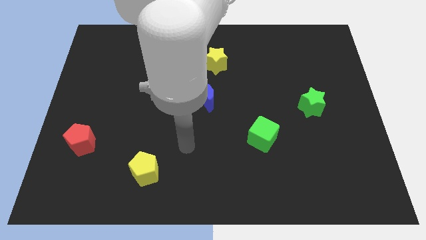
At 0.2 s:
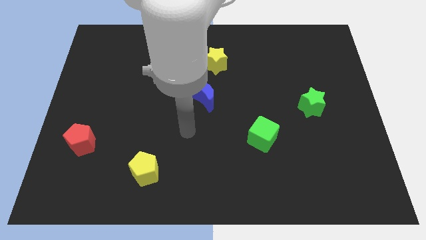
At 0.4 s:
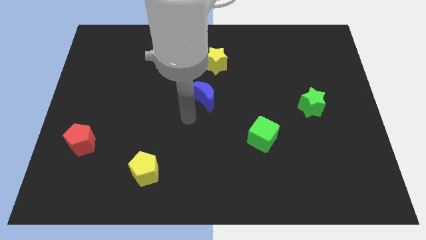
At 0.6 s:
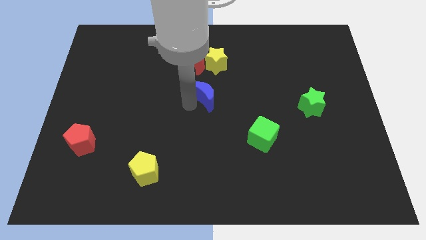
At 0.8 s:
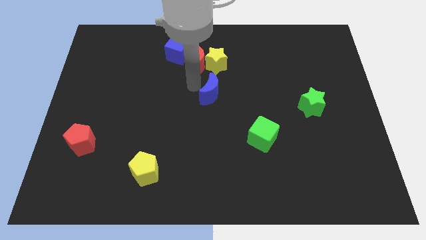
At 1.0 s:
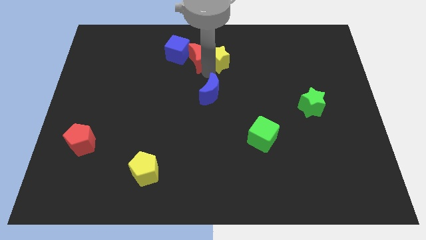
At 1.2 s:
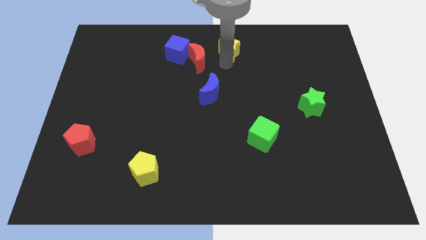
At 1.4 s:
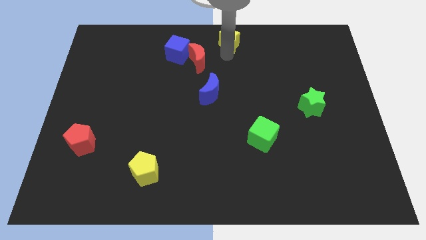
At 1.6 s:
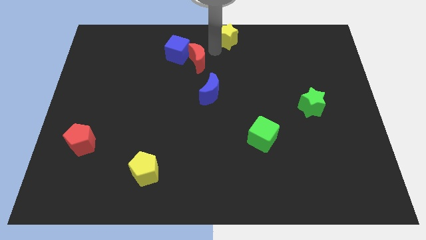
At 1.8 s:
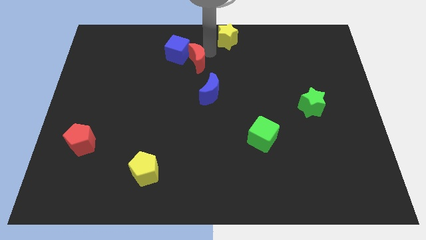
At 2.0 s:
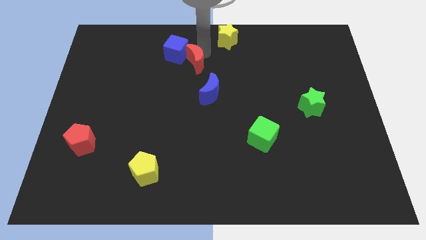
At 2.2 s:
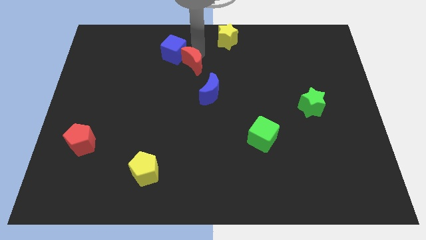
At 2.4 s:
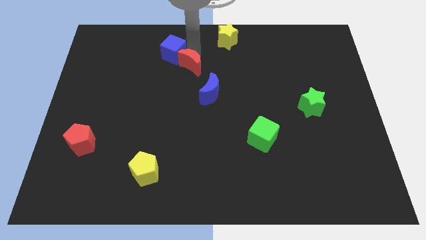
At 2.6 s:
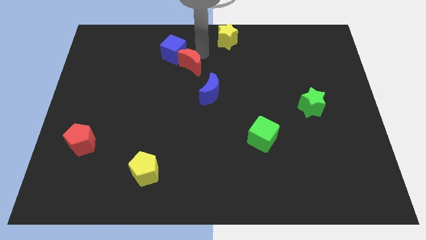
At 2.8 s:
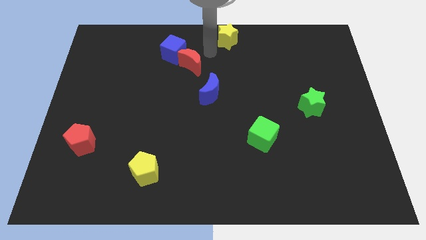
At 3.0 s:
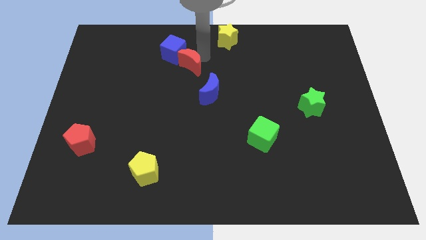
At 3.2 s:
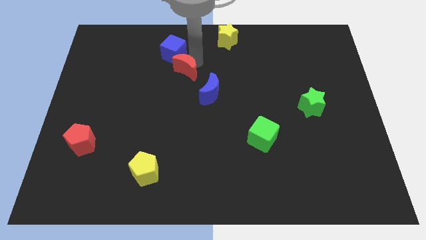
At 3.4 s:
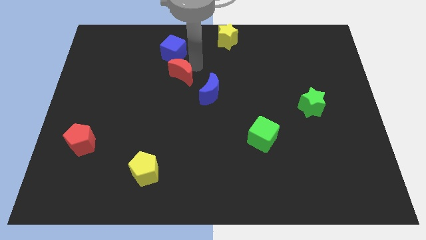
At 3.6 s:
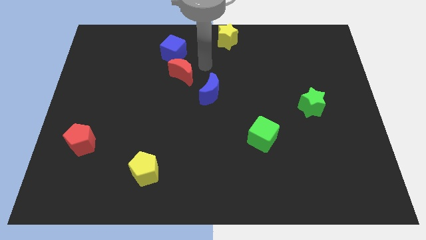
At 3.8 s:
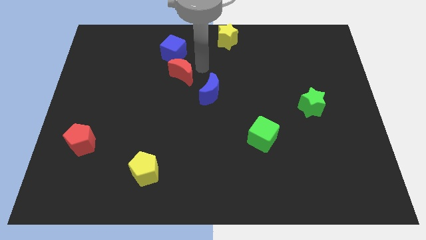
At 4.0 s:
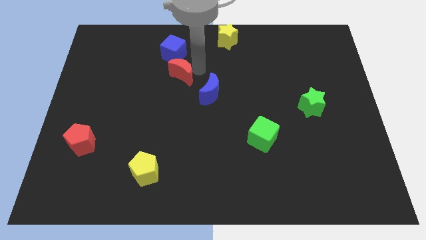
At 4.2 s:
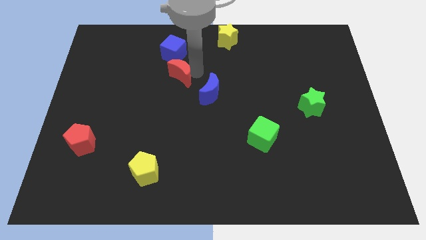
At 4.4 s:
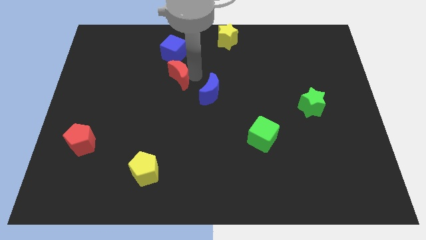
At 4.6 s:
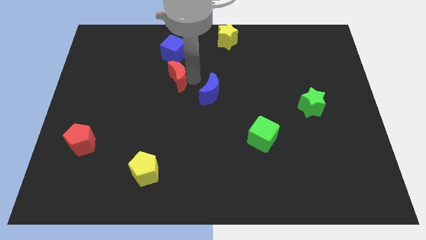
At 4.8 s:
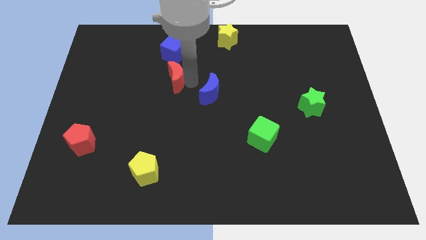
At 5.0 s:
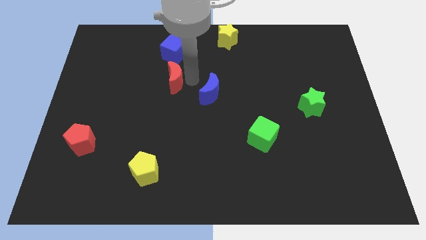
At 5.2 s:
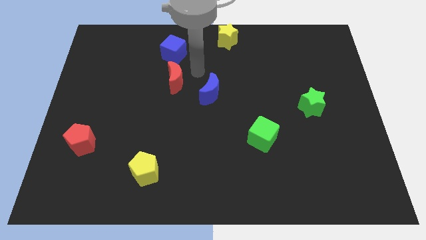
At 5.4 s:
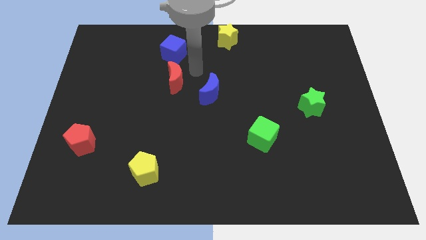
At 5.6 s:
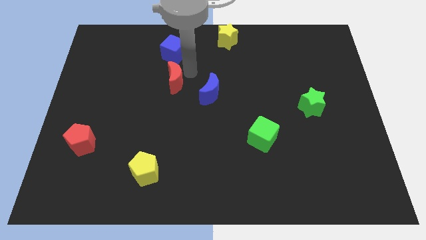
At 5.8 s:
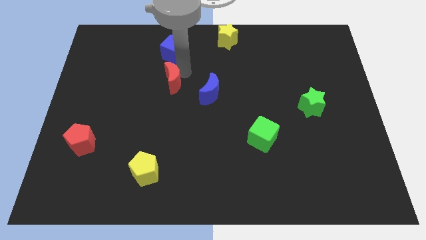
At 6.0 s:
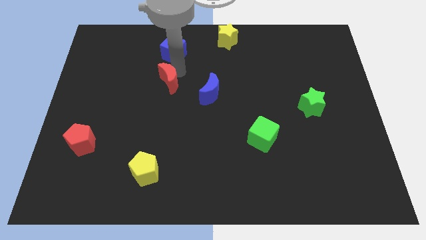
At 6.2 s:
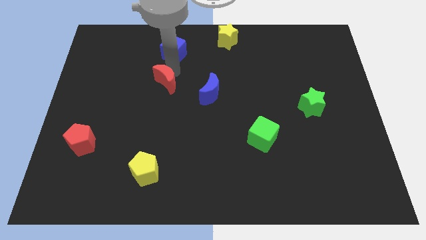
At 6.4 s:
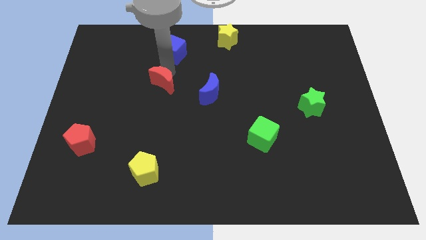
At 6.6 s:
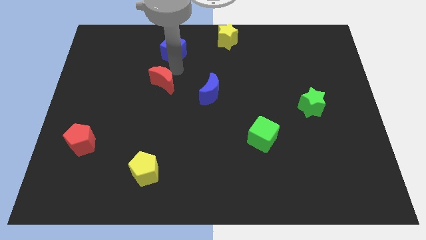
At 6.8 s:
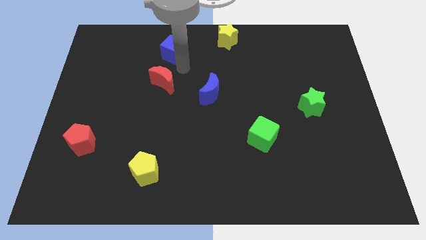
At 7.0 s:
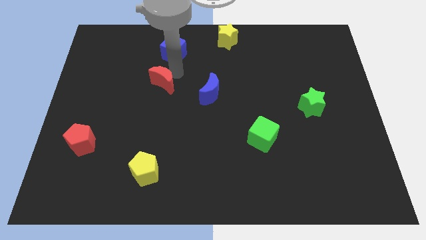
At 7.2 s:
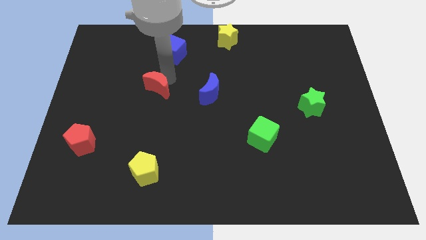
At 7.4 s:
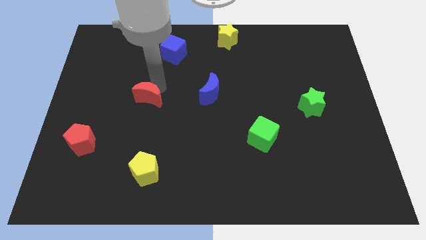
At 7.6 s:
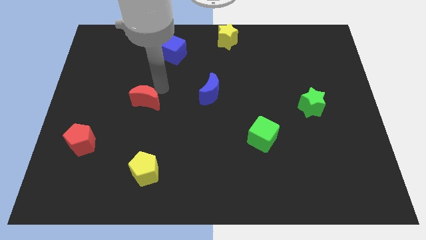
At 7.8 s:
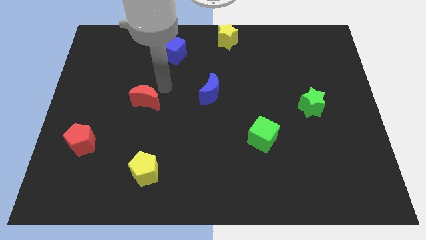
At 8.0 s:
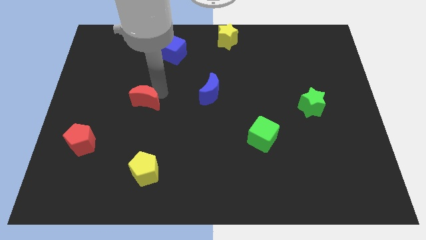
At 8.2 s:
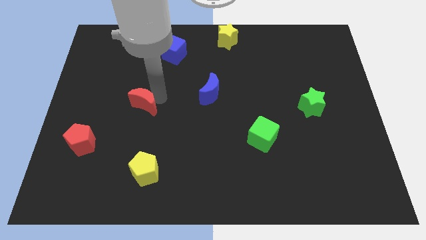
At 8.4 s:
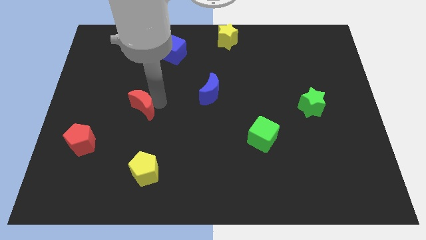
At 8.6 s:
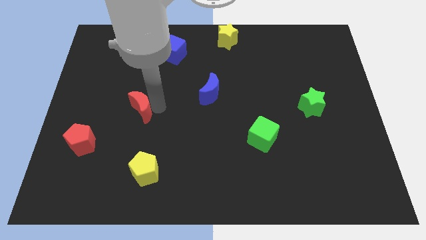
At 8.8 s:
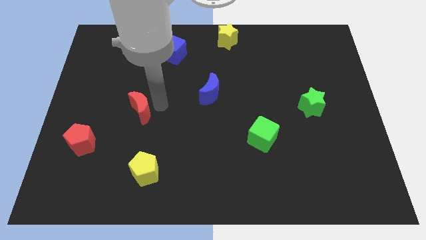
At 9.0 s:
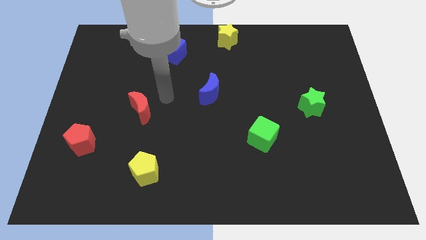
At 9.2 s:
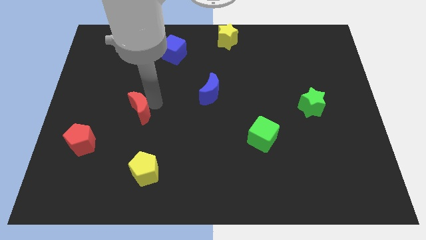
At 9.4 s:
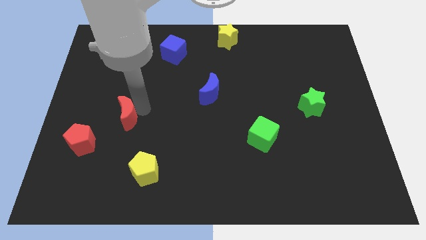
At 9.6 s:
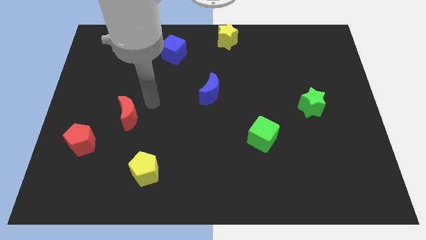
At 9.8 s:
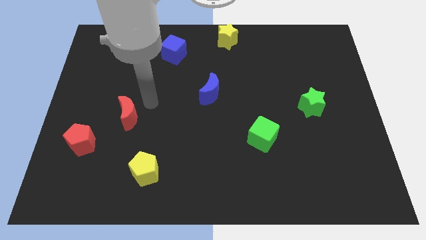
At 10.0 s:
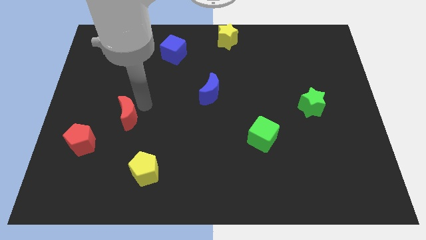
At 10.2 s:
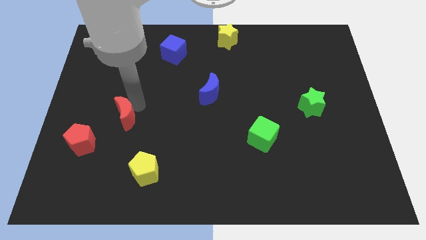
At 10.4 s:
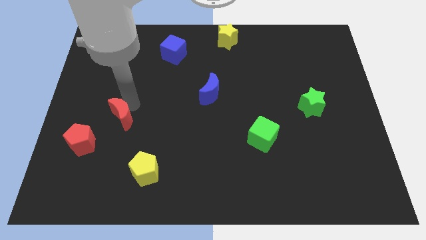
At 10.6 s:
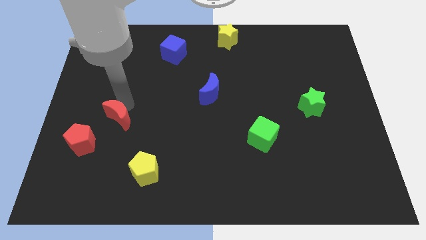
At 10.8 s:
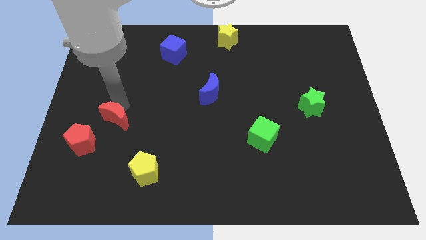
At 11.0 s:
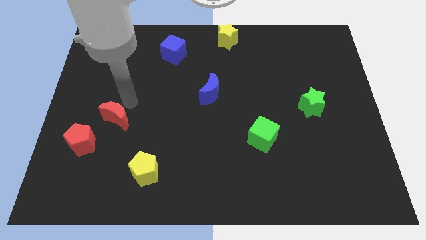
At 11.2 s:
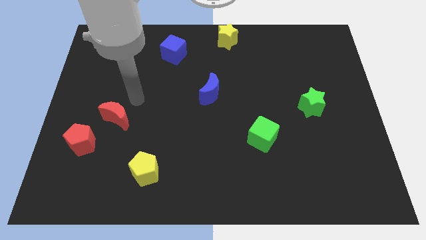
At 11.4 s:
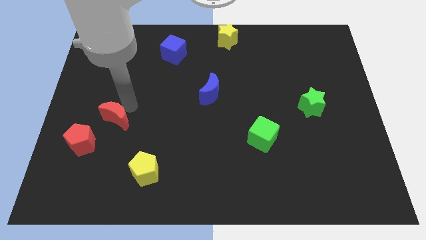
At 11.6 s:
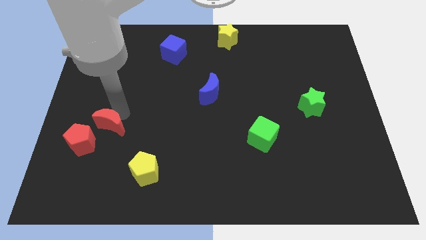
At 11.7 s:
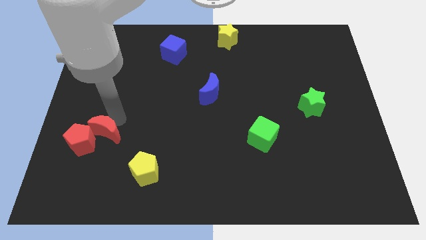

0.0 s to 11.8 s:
move the red moon to the red pentagon

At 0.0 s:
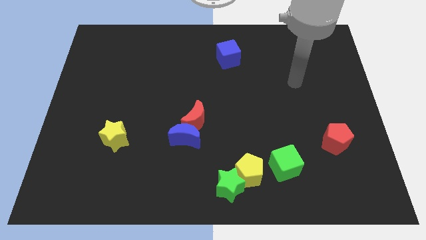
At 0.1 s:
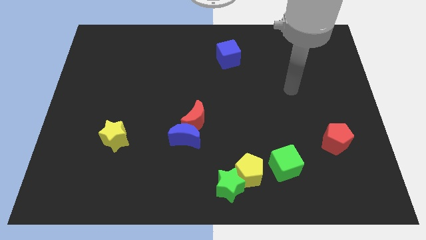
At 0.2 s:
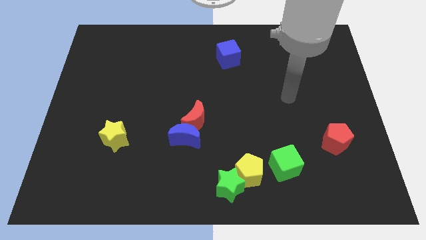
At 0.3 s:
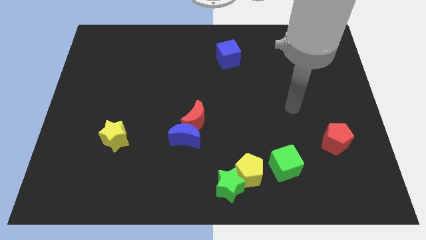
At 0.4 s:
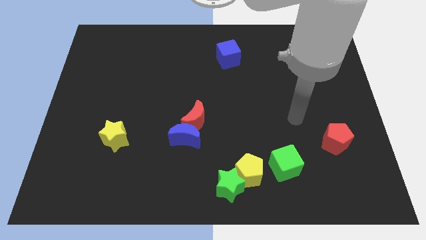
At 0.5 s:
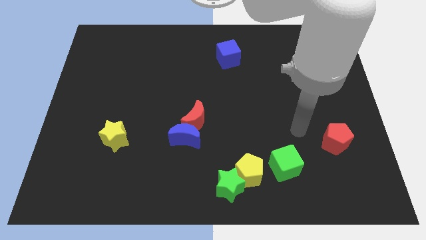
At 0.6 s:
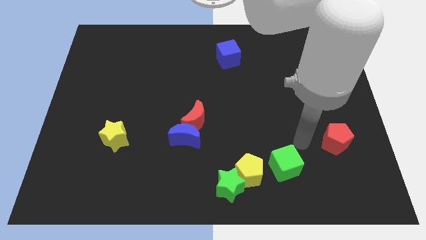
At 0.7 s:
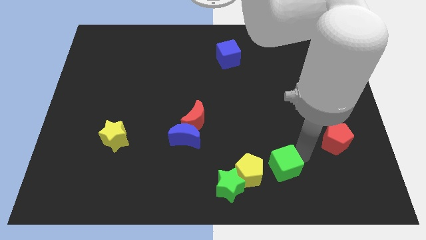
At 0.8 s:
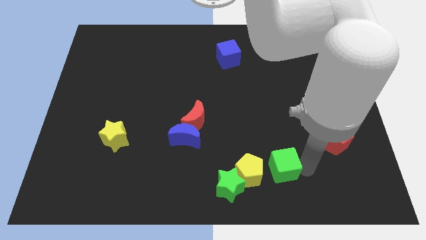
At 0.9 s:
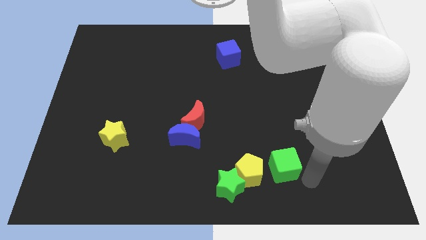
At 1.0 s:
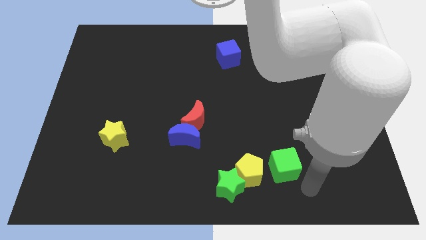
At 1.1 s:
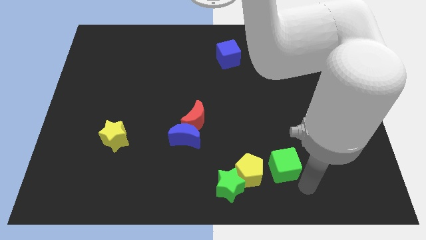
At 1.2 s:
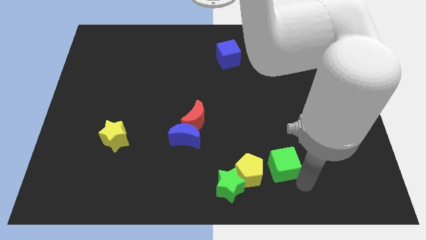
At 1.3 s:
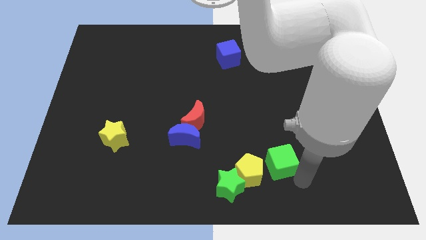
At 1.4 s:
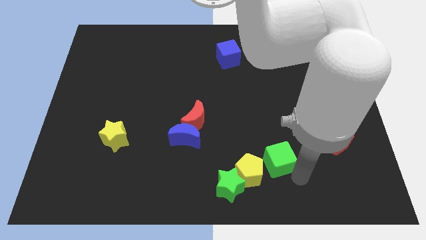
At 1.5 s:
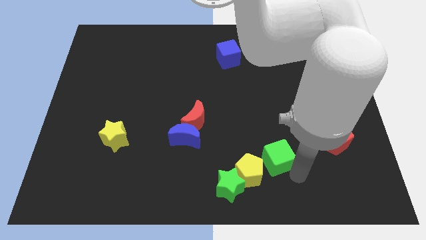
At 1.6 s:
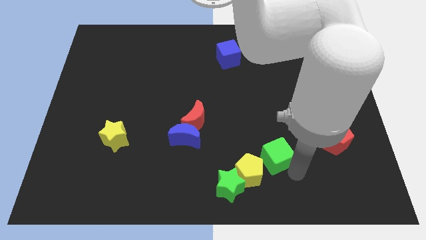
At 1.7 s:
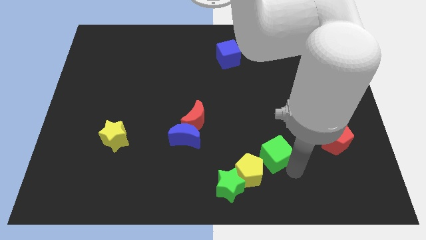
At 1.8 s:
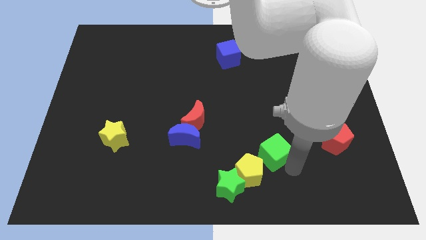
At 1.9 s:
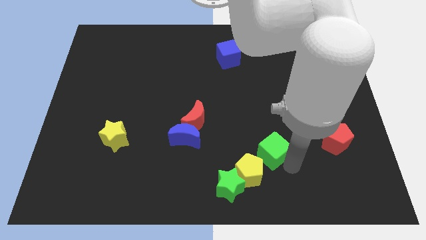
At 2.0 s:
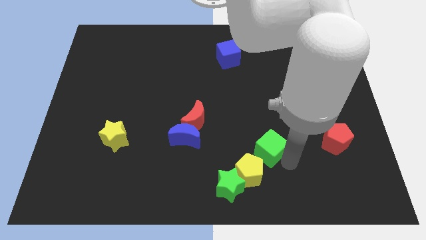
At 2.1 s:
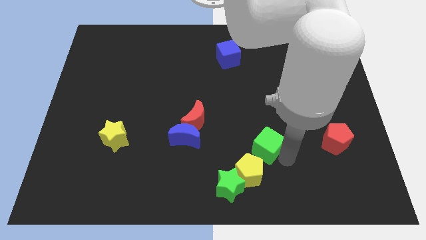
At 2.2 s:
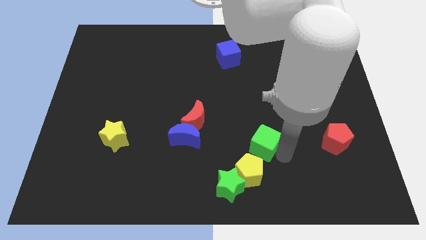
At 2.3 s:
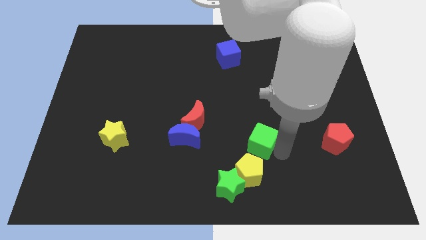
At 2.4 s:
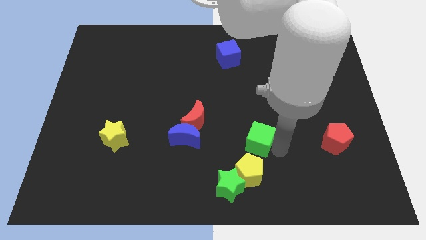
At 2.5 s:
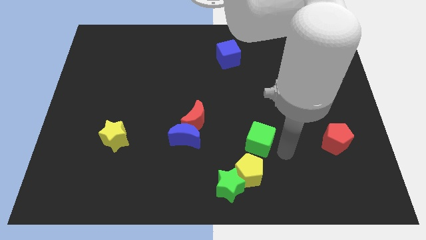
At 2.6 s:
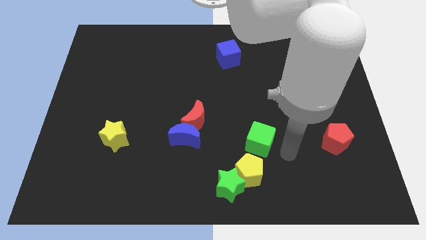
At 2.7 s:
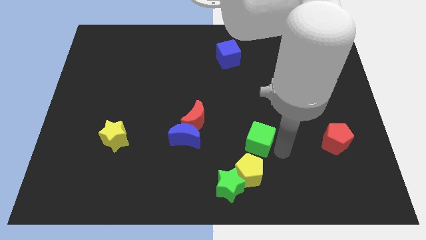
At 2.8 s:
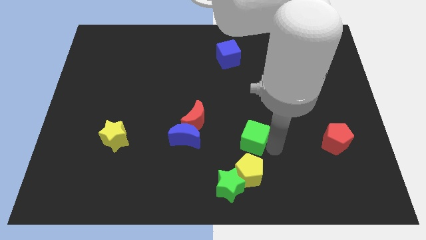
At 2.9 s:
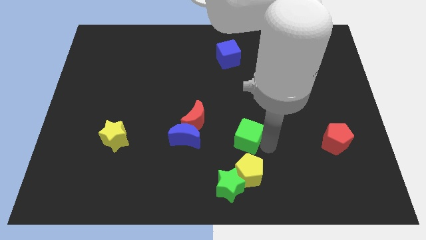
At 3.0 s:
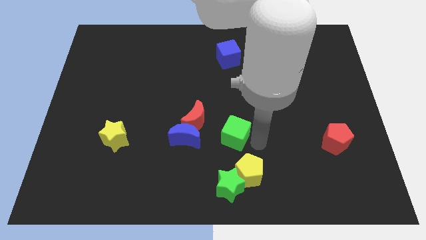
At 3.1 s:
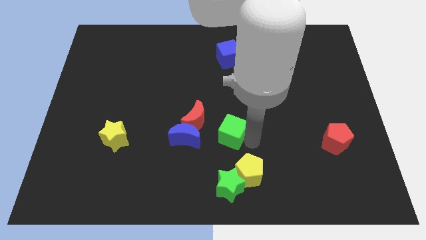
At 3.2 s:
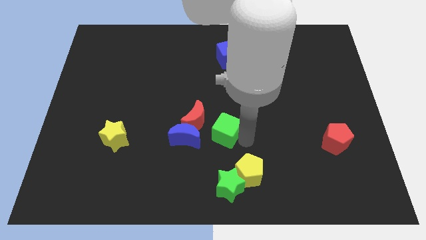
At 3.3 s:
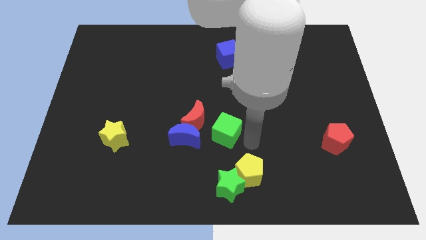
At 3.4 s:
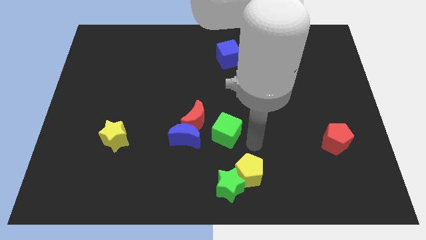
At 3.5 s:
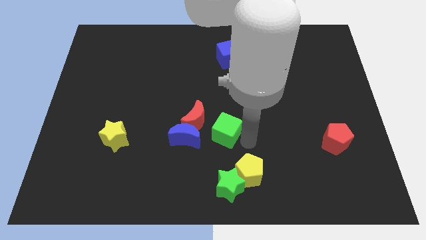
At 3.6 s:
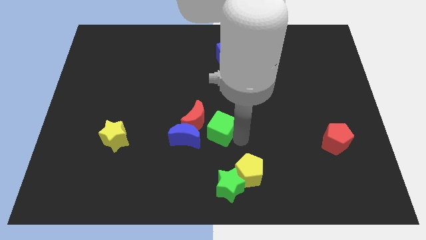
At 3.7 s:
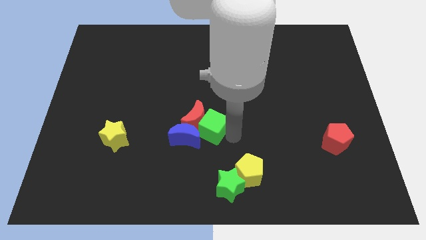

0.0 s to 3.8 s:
put the green cube close to the red moon
